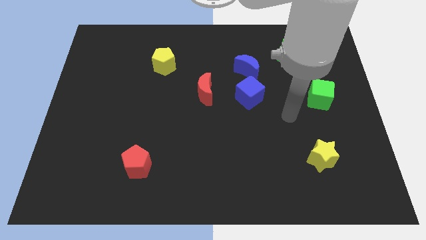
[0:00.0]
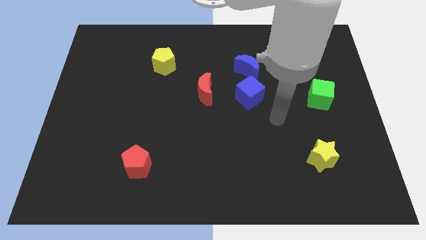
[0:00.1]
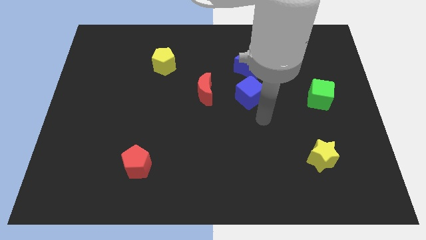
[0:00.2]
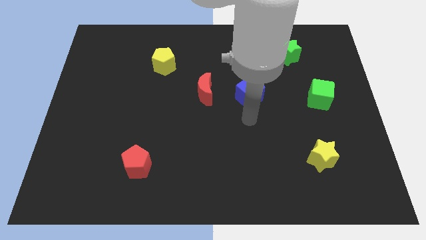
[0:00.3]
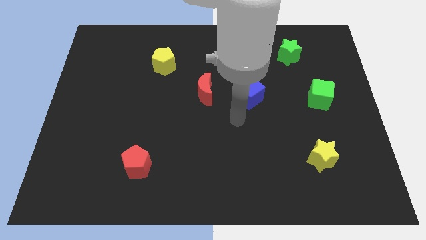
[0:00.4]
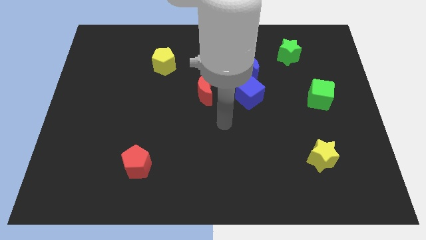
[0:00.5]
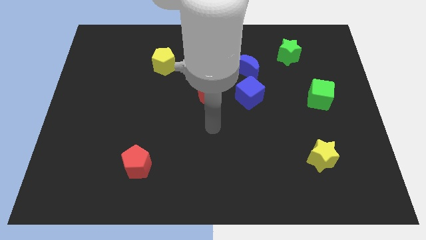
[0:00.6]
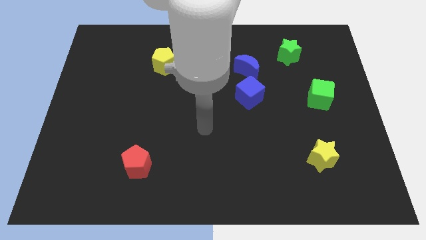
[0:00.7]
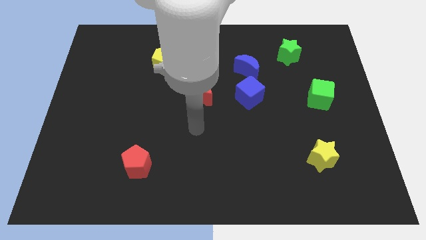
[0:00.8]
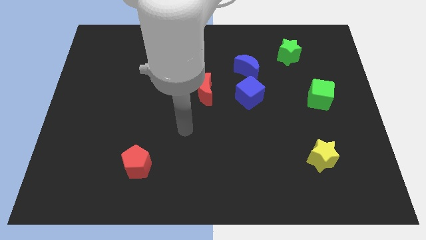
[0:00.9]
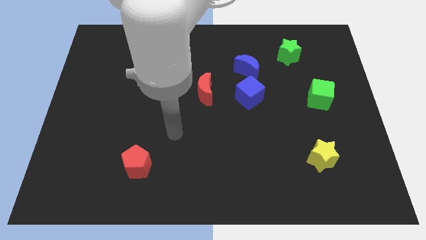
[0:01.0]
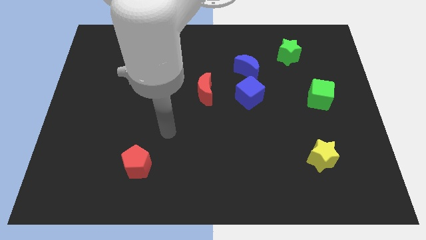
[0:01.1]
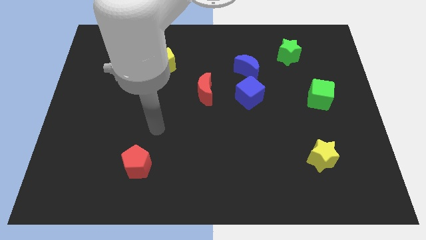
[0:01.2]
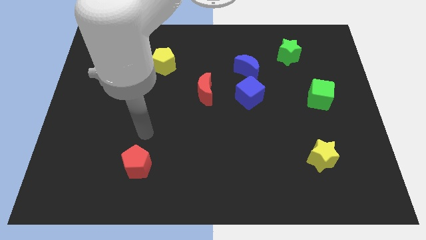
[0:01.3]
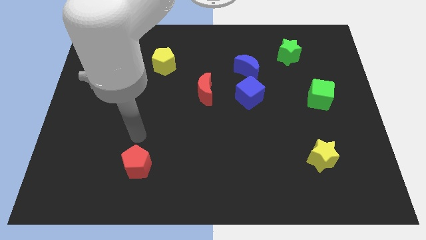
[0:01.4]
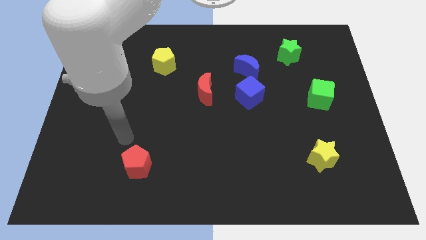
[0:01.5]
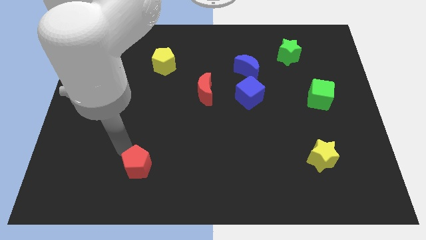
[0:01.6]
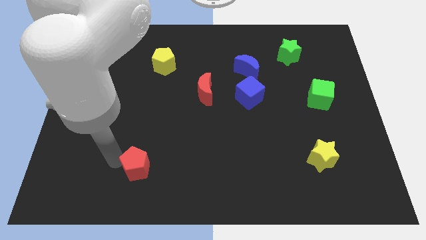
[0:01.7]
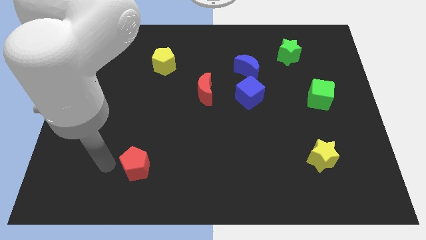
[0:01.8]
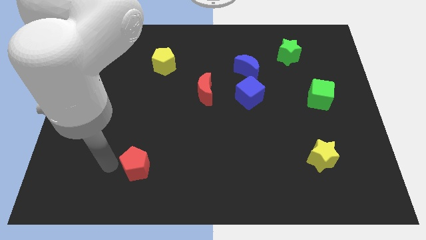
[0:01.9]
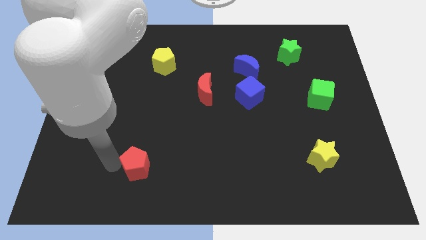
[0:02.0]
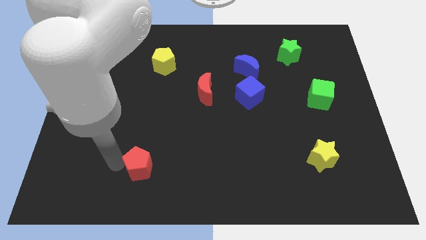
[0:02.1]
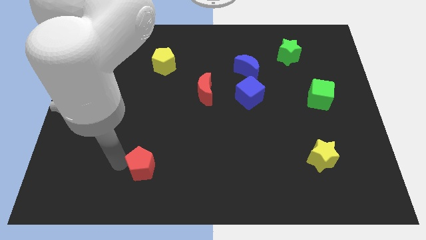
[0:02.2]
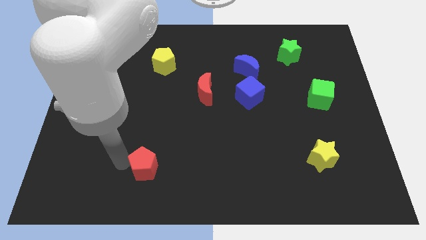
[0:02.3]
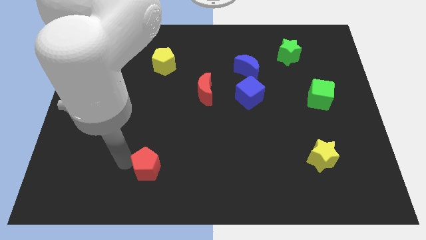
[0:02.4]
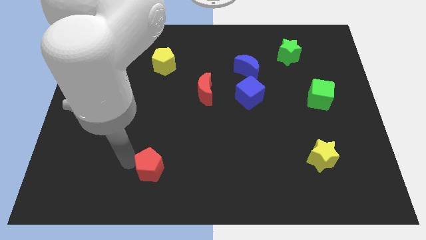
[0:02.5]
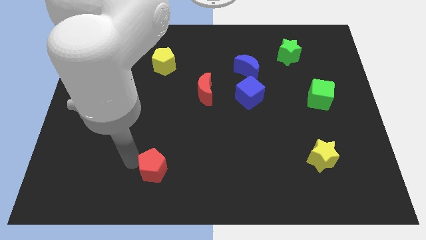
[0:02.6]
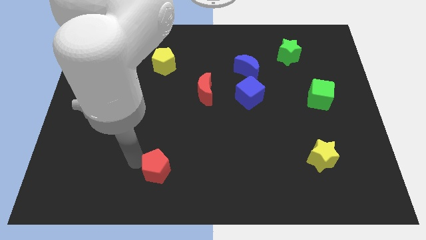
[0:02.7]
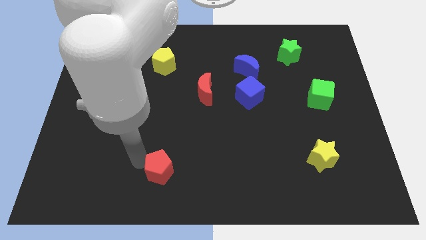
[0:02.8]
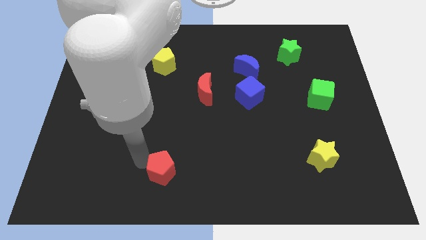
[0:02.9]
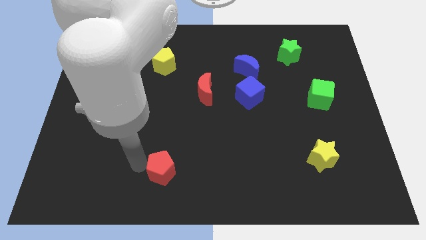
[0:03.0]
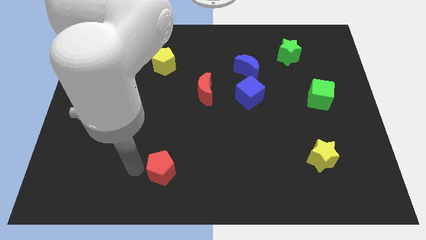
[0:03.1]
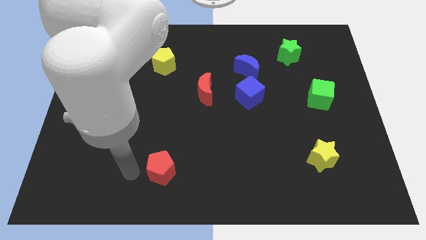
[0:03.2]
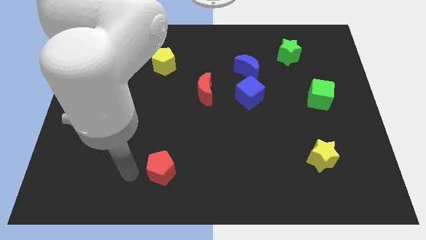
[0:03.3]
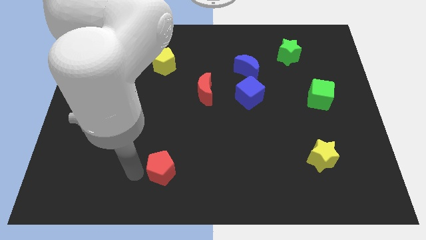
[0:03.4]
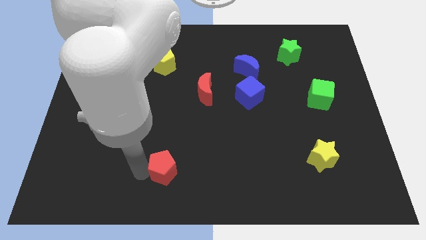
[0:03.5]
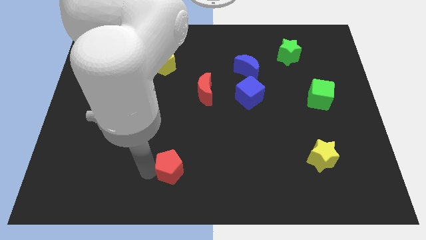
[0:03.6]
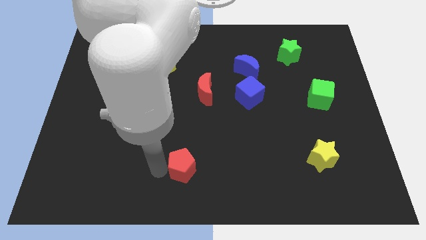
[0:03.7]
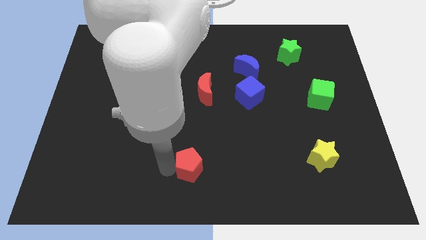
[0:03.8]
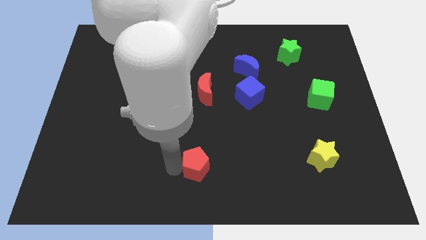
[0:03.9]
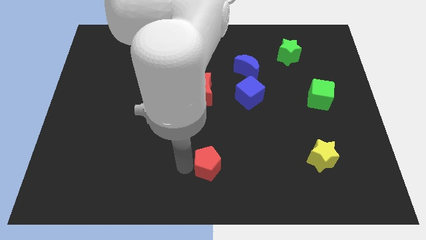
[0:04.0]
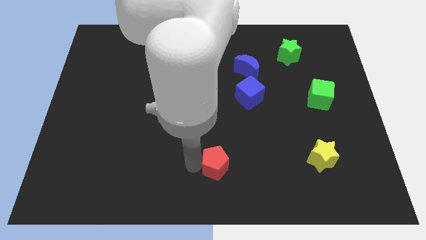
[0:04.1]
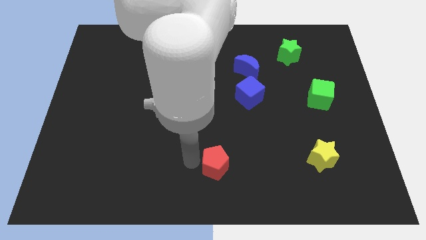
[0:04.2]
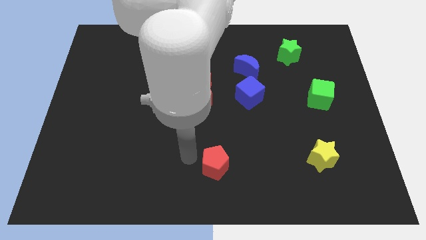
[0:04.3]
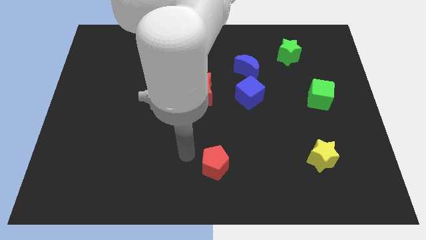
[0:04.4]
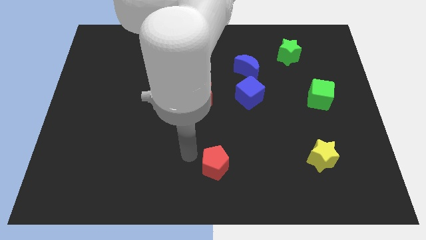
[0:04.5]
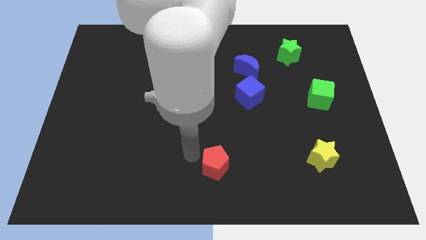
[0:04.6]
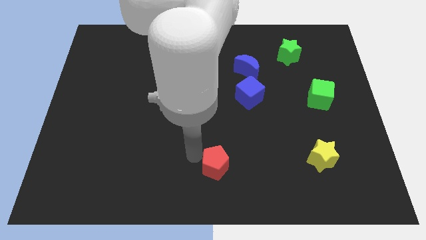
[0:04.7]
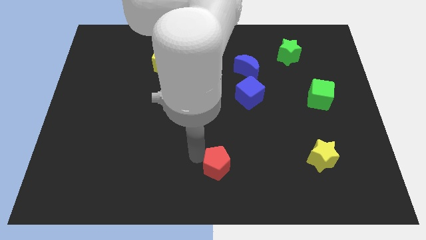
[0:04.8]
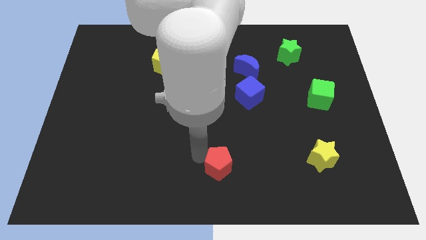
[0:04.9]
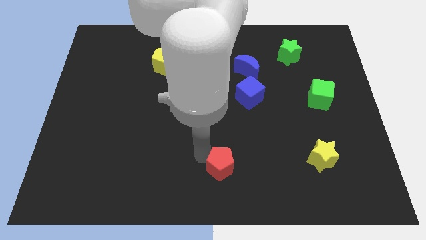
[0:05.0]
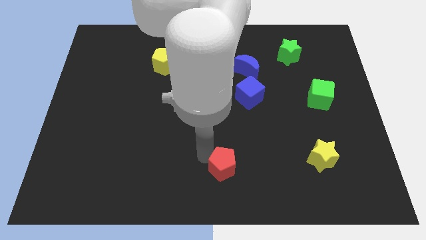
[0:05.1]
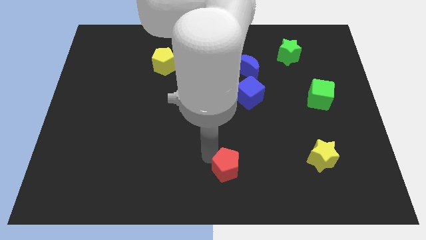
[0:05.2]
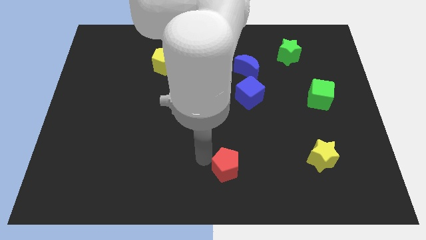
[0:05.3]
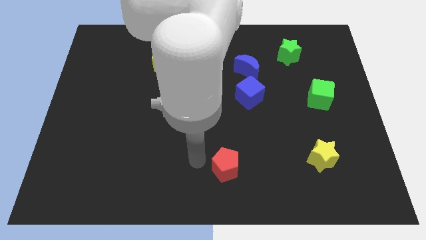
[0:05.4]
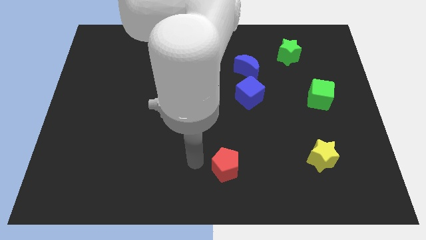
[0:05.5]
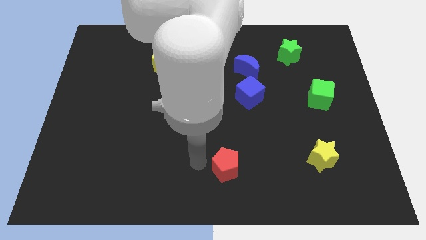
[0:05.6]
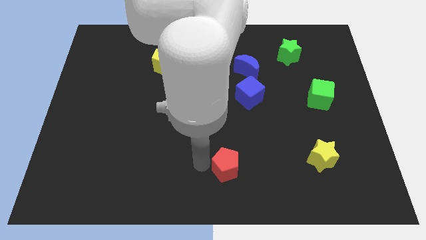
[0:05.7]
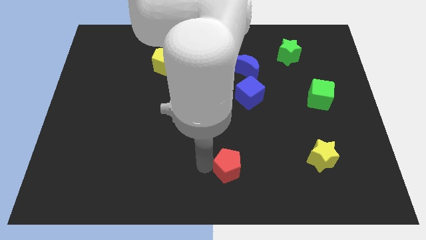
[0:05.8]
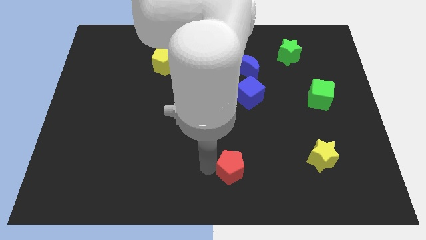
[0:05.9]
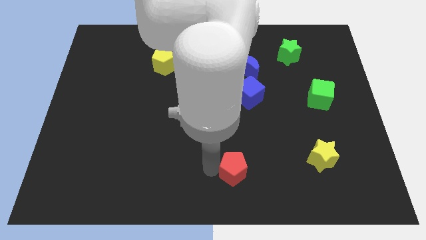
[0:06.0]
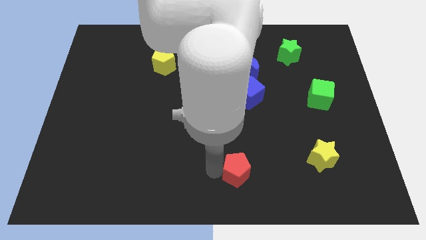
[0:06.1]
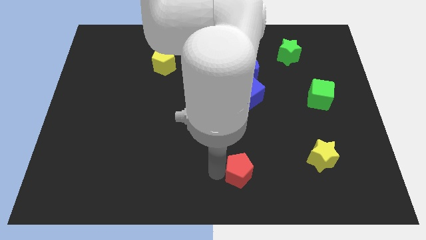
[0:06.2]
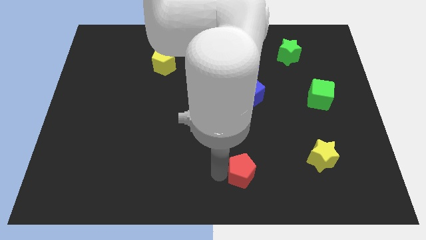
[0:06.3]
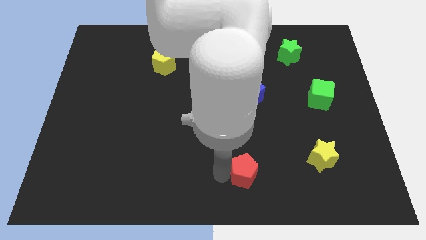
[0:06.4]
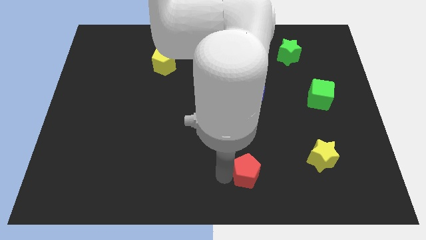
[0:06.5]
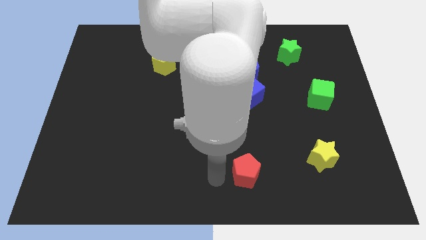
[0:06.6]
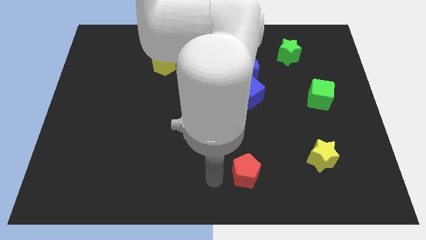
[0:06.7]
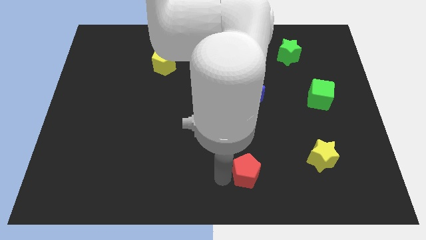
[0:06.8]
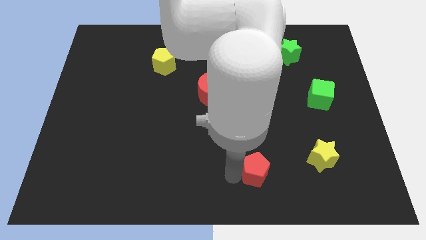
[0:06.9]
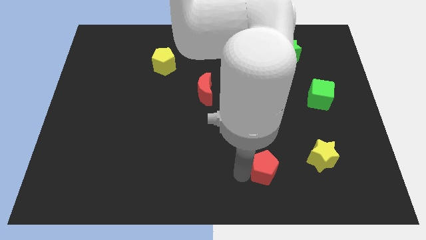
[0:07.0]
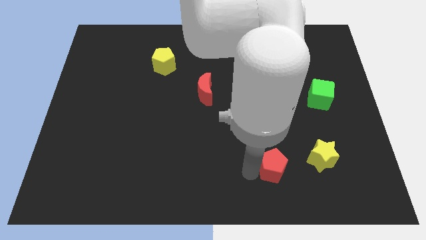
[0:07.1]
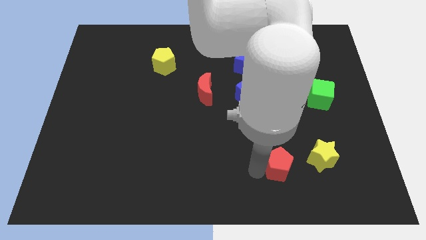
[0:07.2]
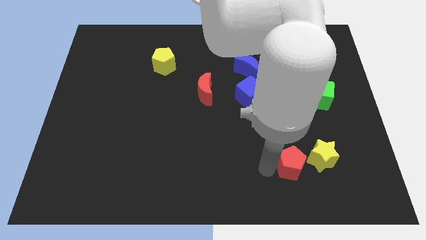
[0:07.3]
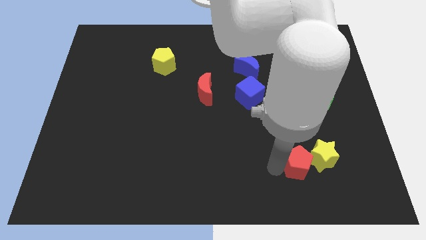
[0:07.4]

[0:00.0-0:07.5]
put the red pentagon close to the yellow star
